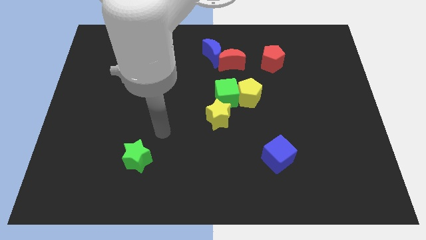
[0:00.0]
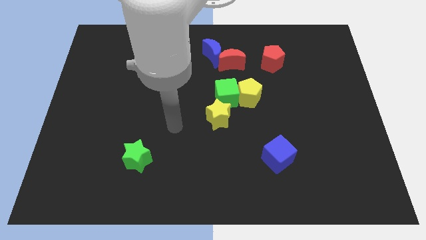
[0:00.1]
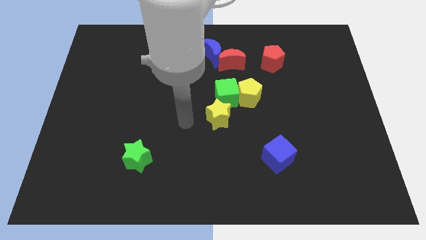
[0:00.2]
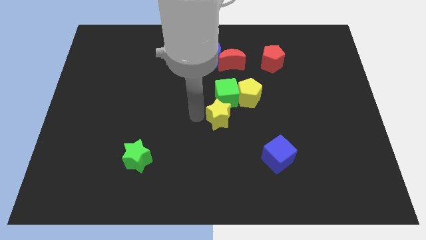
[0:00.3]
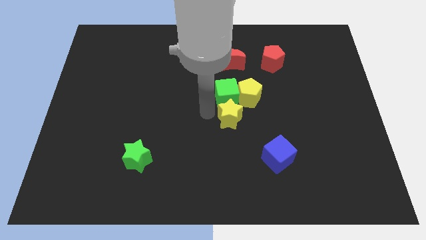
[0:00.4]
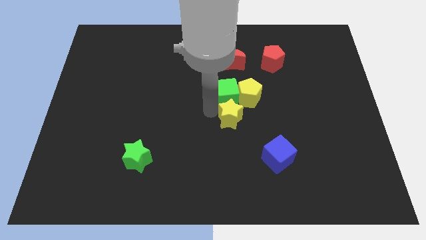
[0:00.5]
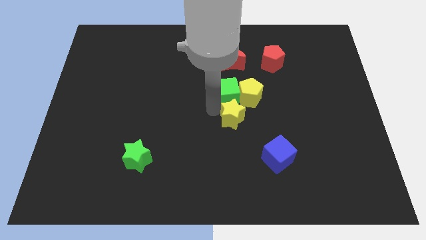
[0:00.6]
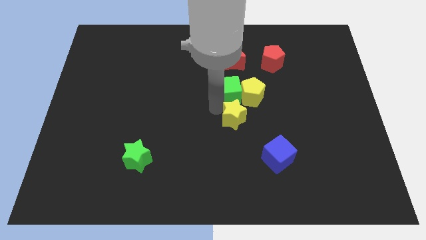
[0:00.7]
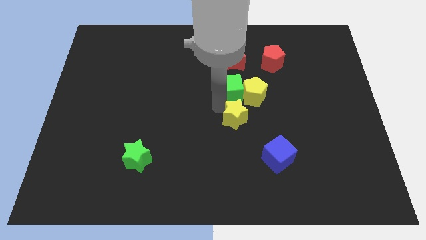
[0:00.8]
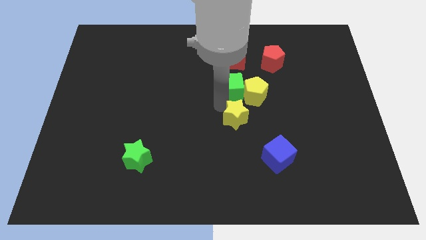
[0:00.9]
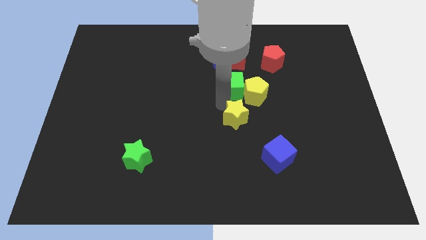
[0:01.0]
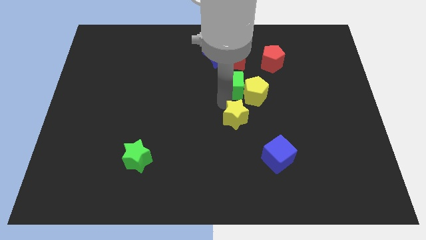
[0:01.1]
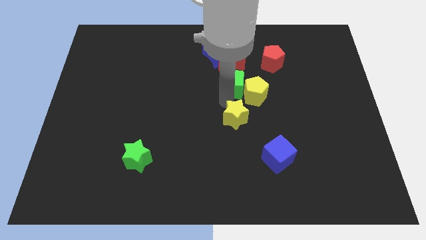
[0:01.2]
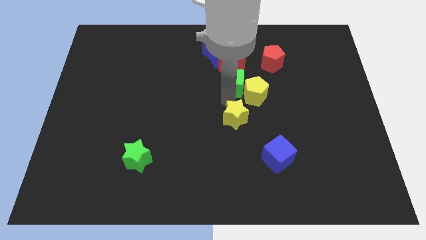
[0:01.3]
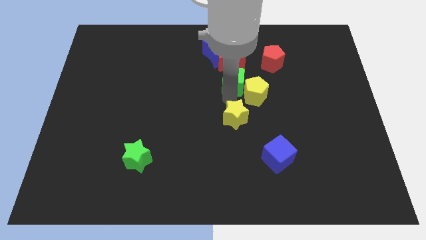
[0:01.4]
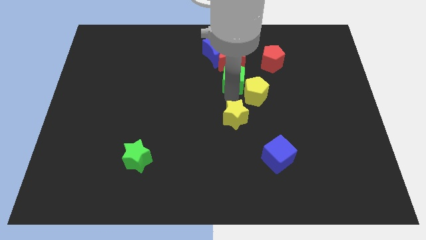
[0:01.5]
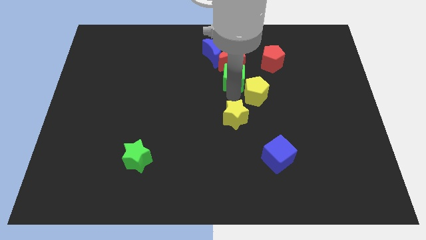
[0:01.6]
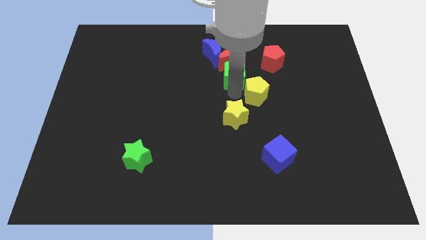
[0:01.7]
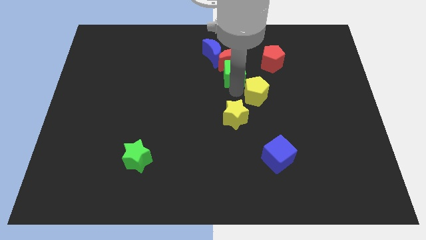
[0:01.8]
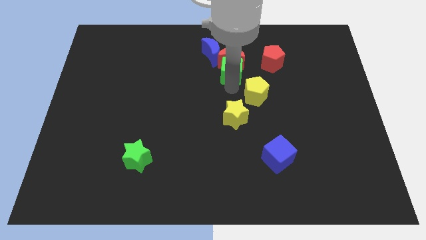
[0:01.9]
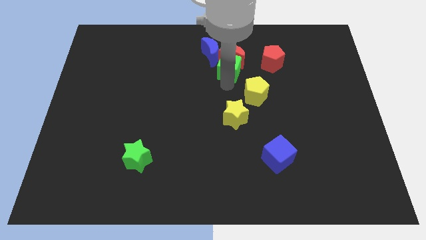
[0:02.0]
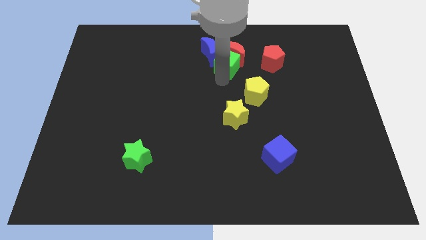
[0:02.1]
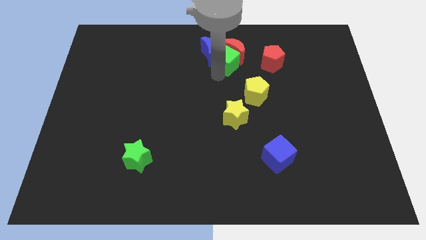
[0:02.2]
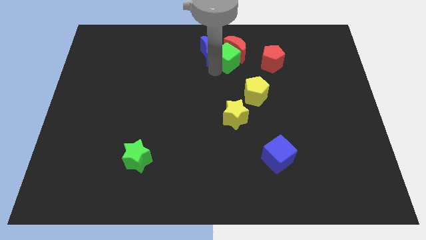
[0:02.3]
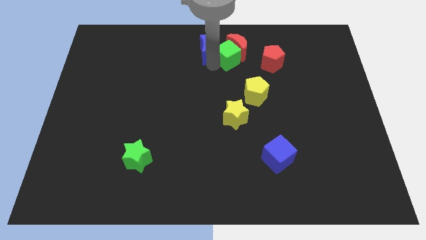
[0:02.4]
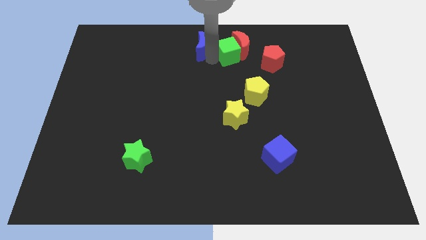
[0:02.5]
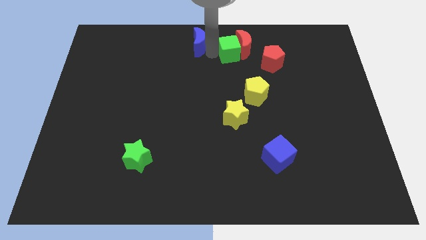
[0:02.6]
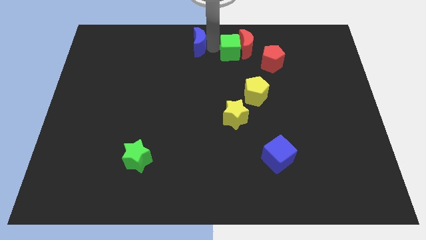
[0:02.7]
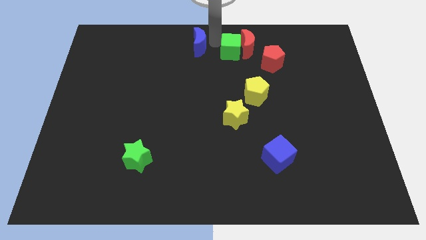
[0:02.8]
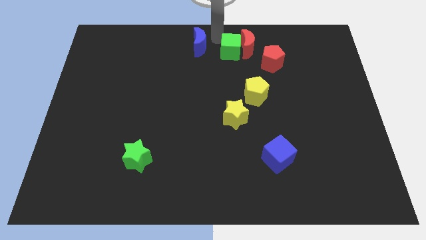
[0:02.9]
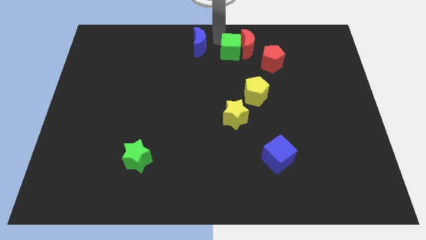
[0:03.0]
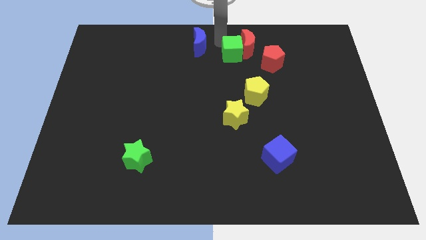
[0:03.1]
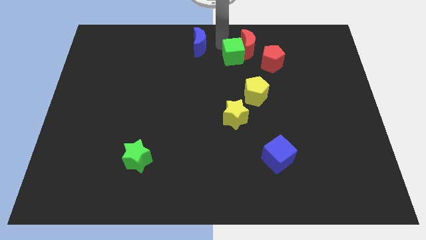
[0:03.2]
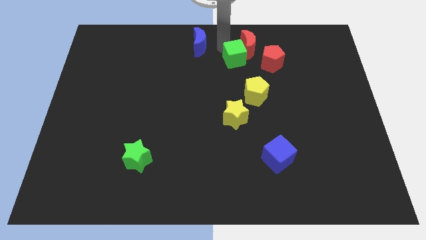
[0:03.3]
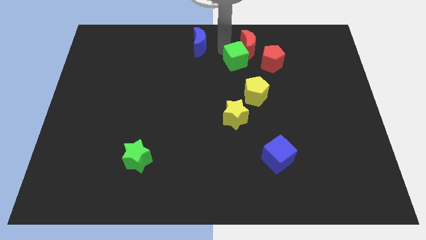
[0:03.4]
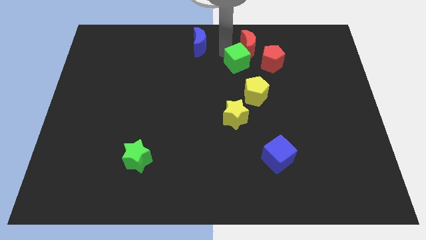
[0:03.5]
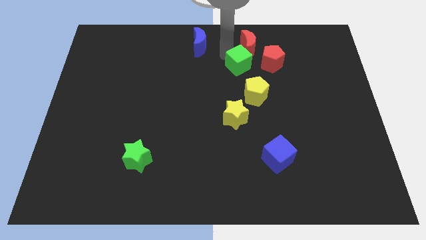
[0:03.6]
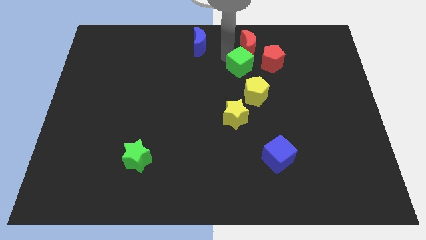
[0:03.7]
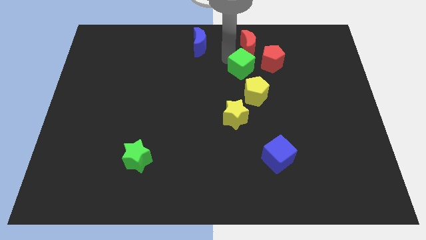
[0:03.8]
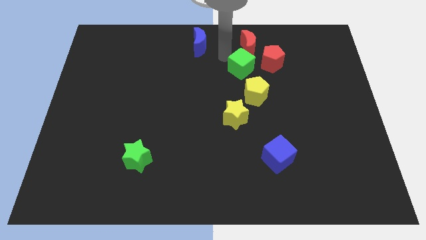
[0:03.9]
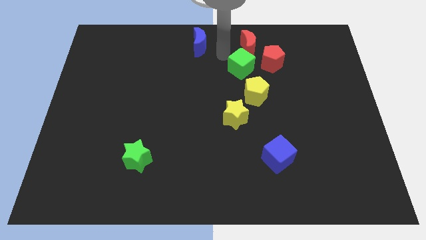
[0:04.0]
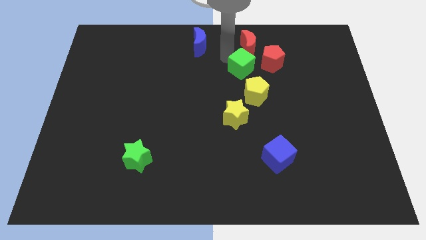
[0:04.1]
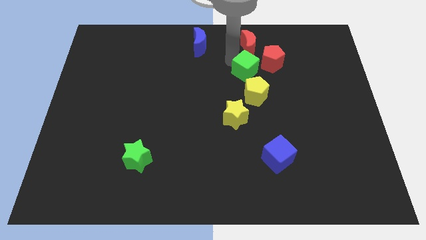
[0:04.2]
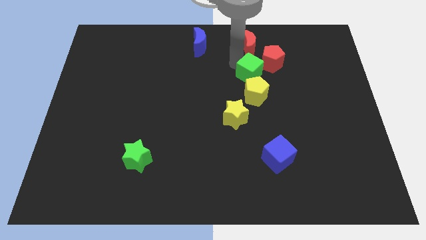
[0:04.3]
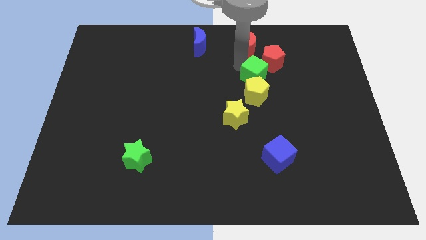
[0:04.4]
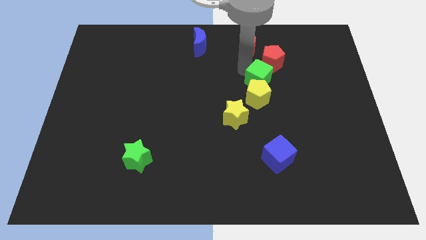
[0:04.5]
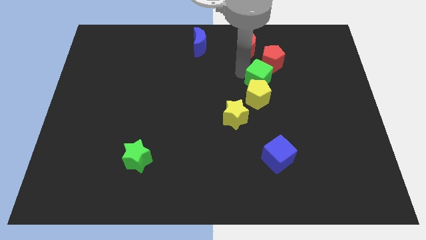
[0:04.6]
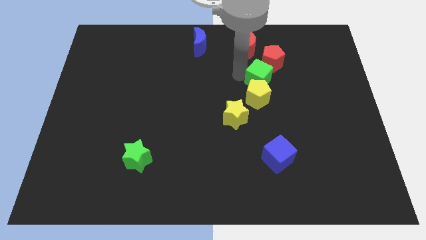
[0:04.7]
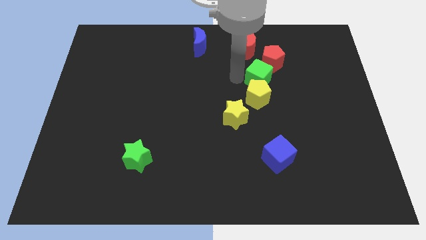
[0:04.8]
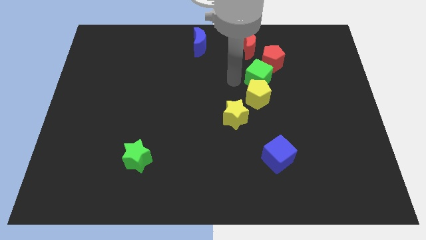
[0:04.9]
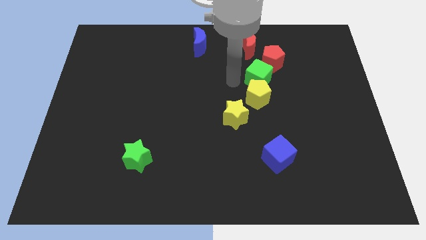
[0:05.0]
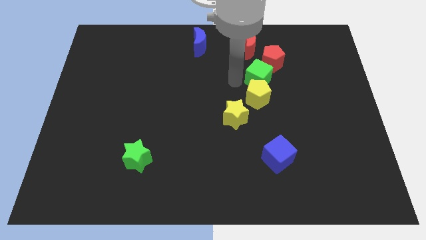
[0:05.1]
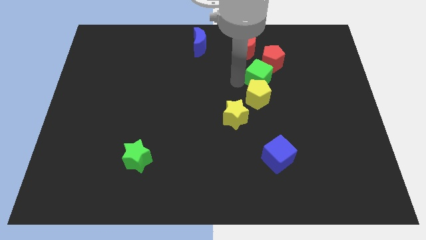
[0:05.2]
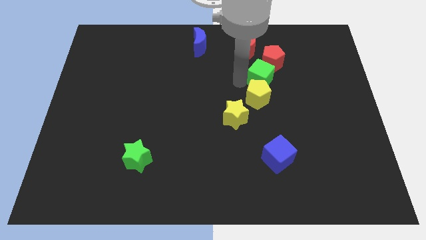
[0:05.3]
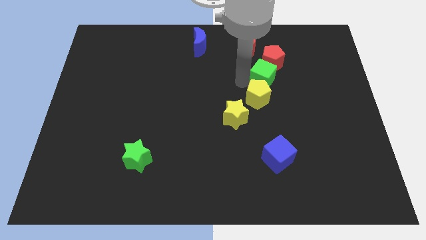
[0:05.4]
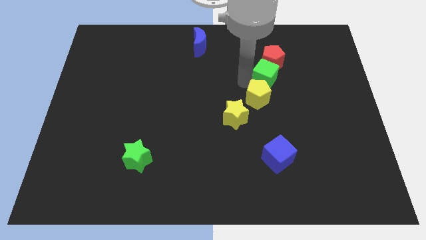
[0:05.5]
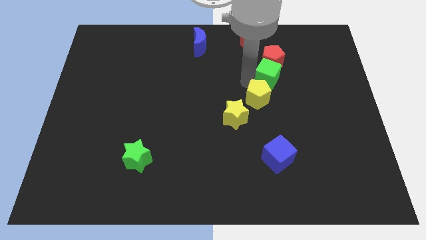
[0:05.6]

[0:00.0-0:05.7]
slide the green cube to the bottom right side of the red pentagon

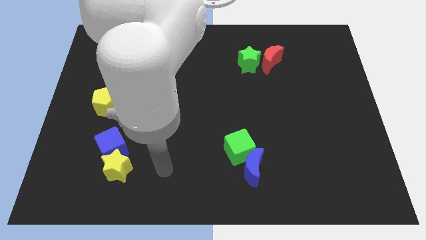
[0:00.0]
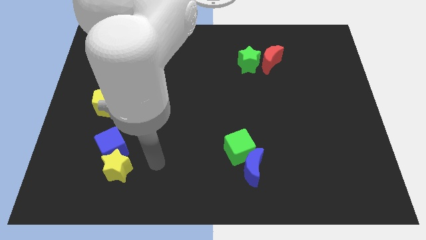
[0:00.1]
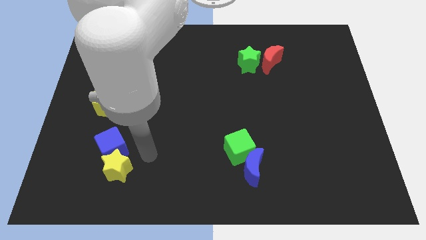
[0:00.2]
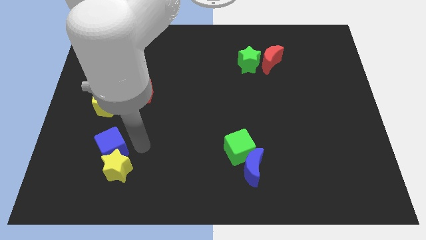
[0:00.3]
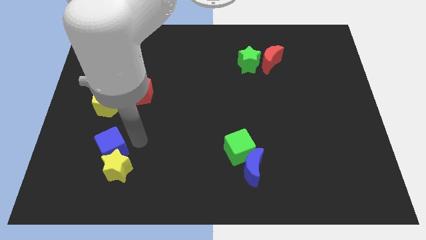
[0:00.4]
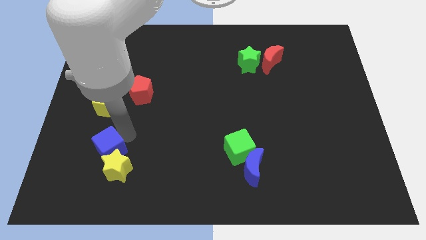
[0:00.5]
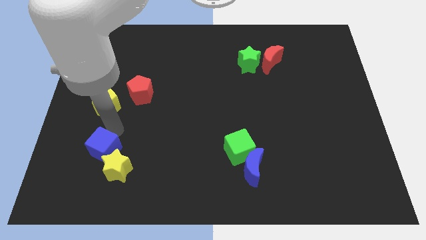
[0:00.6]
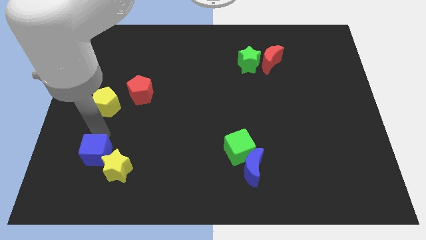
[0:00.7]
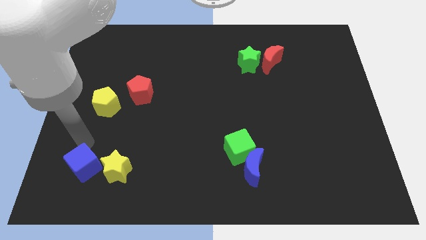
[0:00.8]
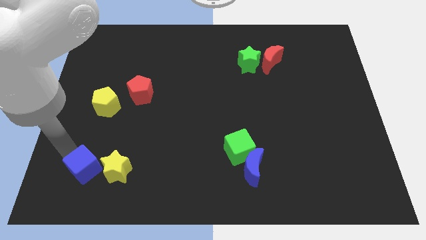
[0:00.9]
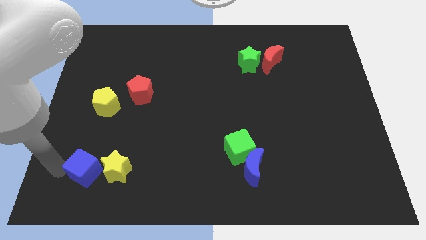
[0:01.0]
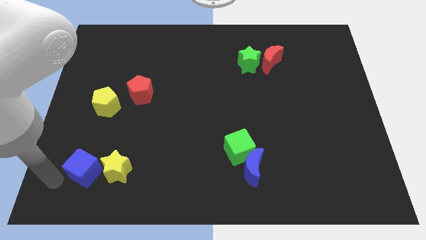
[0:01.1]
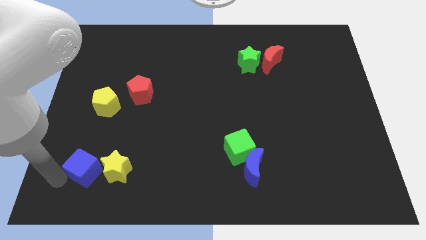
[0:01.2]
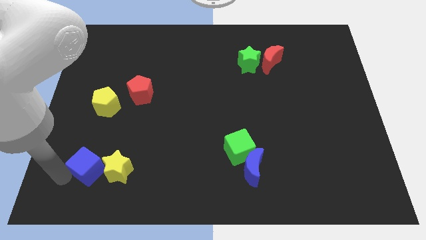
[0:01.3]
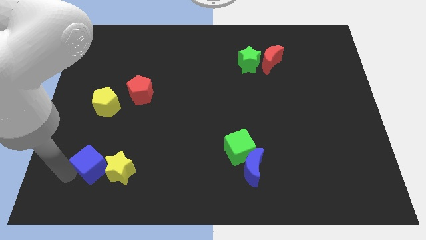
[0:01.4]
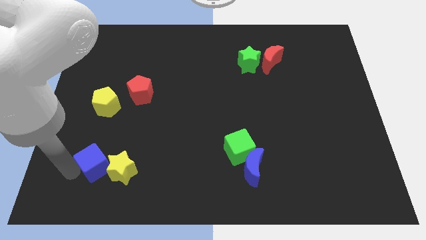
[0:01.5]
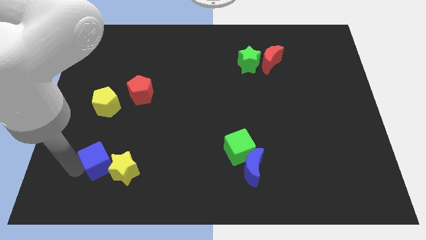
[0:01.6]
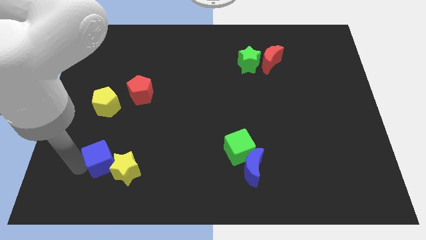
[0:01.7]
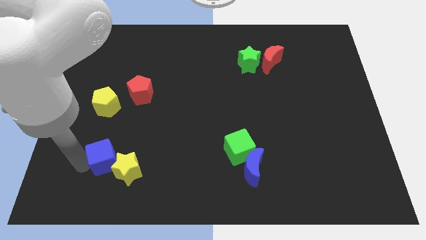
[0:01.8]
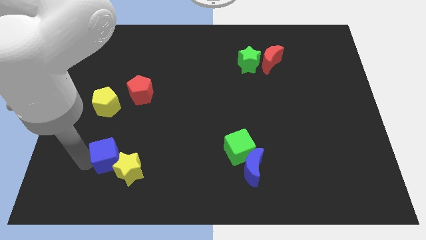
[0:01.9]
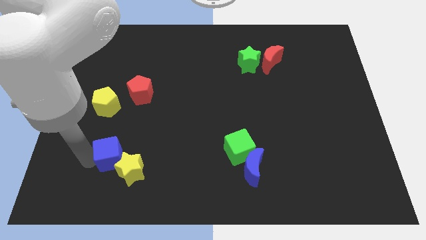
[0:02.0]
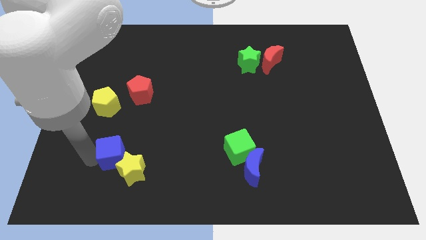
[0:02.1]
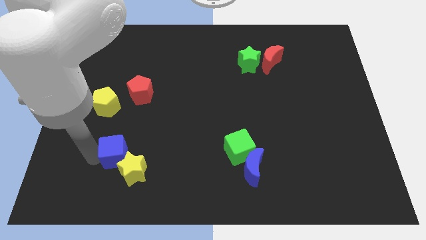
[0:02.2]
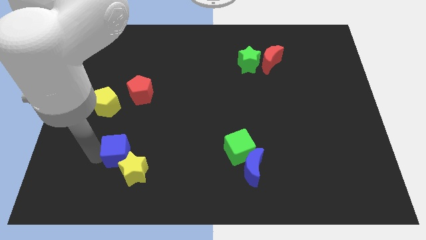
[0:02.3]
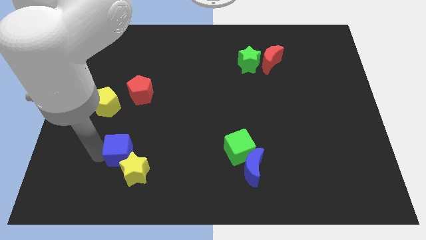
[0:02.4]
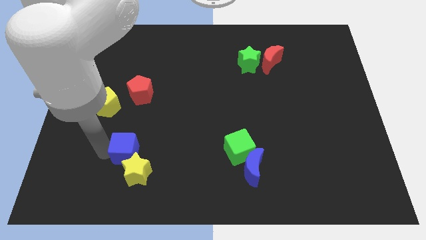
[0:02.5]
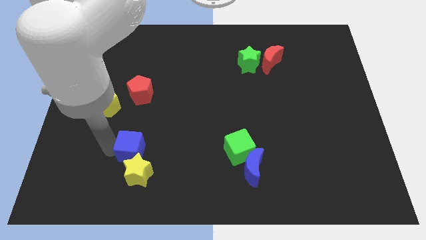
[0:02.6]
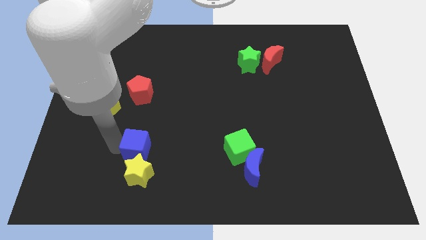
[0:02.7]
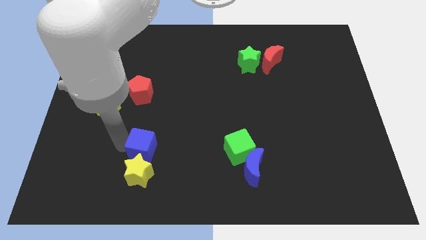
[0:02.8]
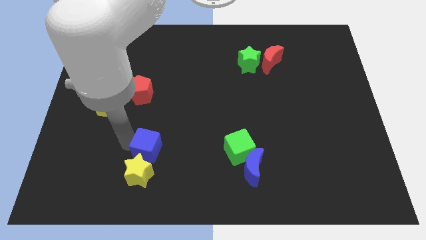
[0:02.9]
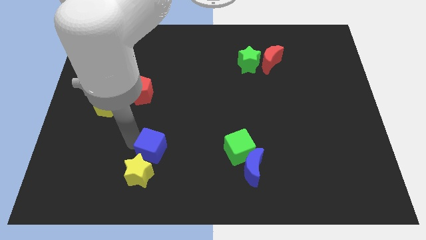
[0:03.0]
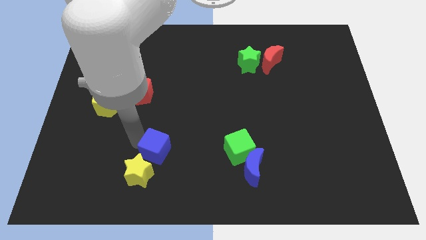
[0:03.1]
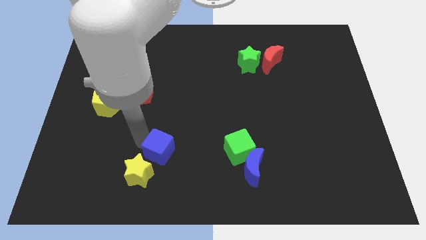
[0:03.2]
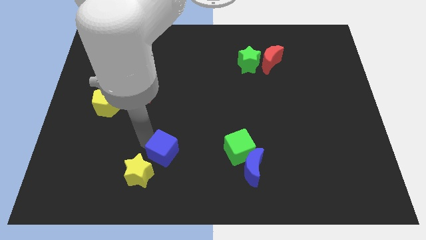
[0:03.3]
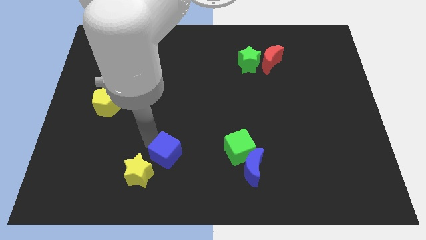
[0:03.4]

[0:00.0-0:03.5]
put the blue cube just right of the yellow star
